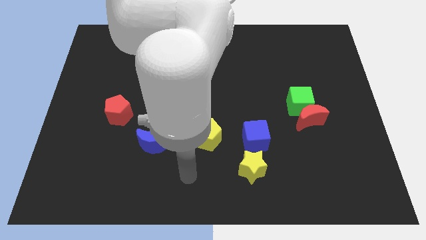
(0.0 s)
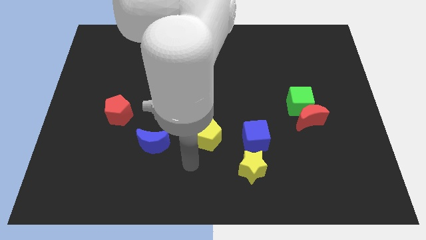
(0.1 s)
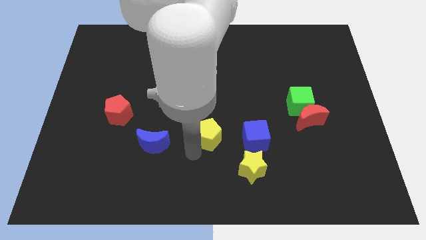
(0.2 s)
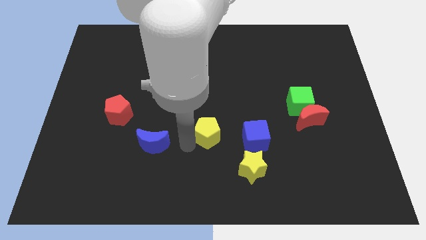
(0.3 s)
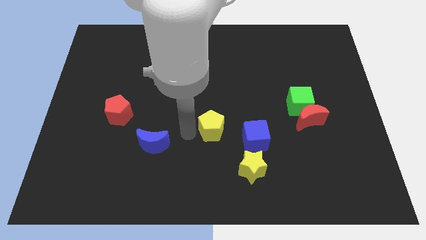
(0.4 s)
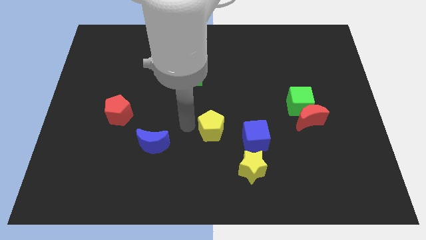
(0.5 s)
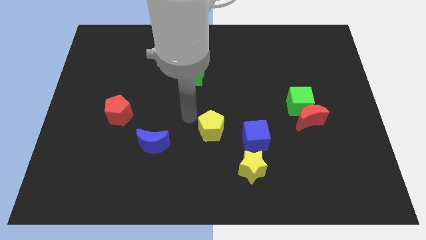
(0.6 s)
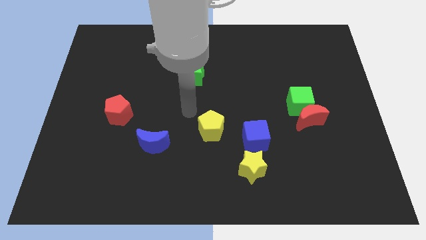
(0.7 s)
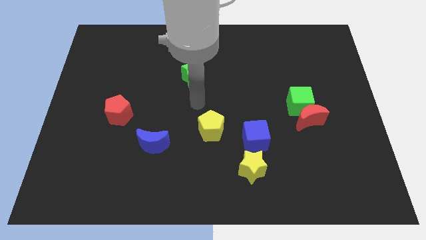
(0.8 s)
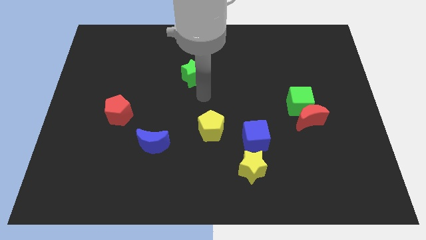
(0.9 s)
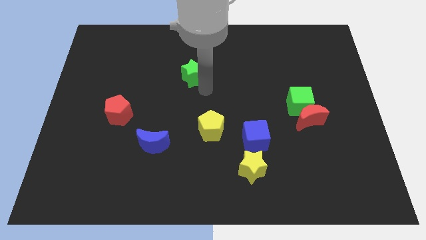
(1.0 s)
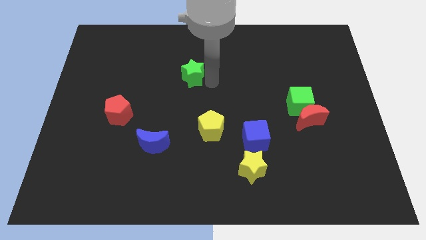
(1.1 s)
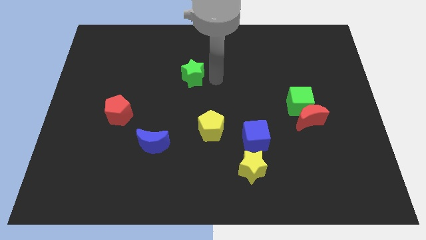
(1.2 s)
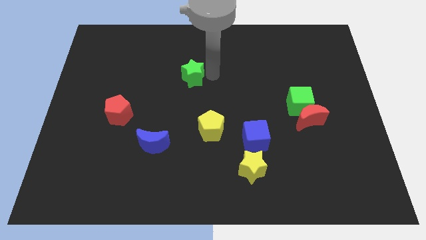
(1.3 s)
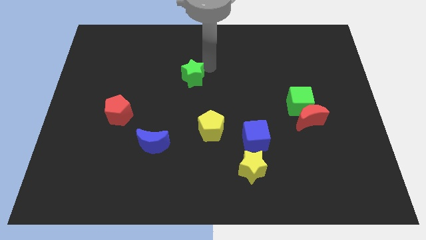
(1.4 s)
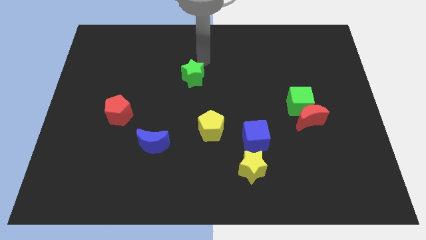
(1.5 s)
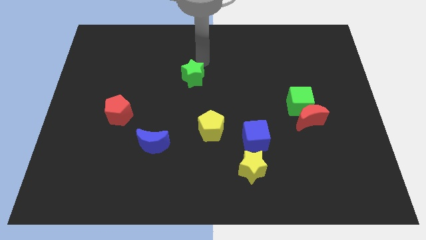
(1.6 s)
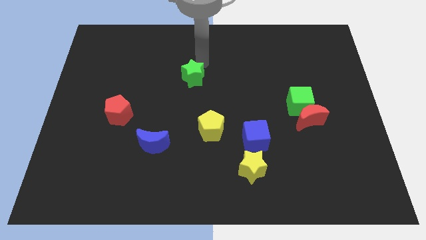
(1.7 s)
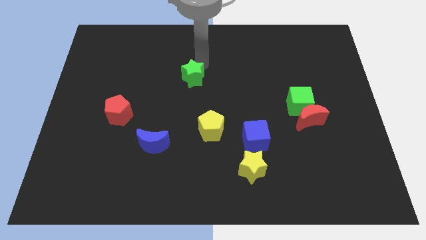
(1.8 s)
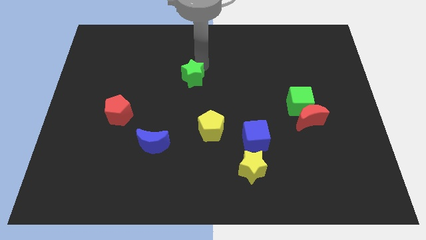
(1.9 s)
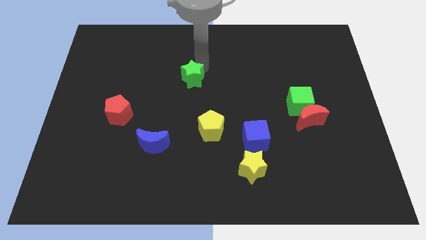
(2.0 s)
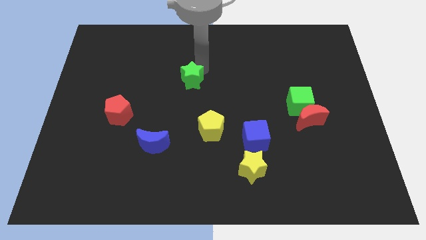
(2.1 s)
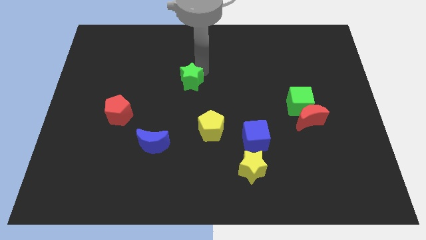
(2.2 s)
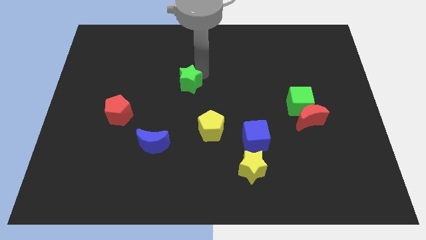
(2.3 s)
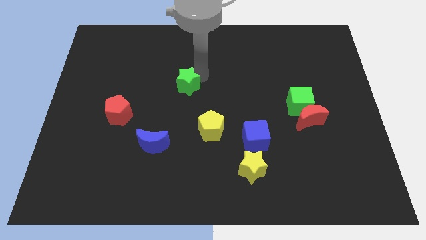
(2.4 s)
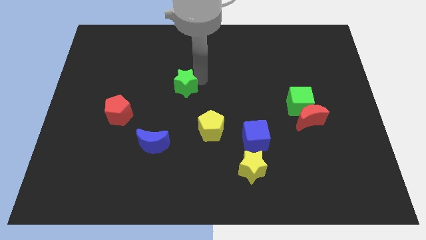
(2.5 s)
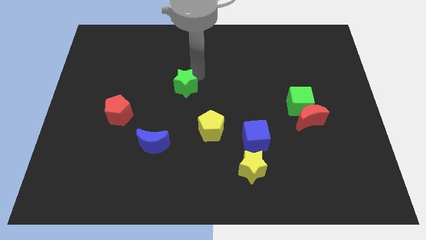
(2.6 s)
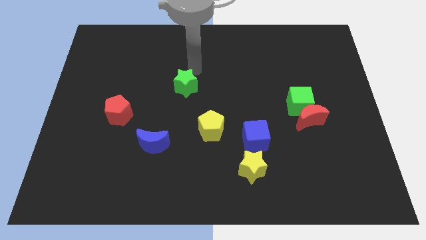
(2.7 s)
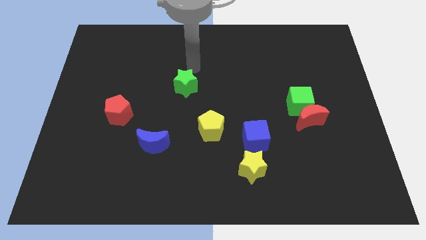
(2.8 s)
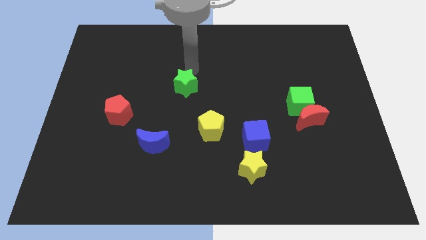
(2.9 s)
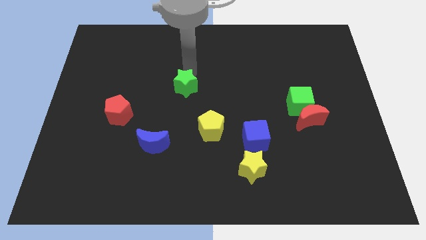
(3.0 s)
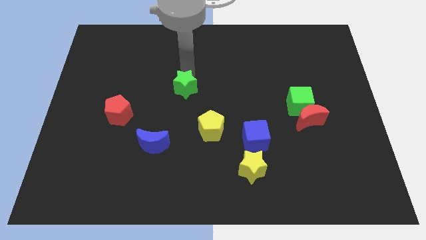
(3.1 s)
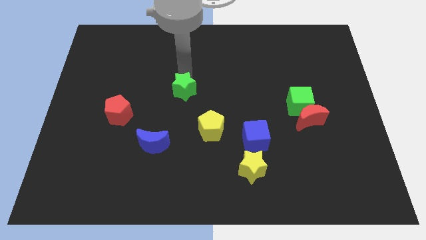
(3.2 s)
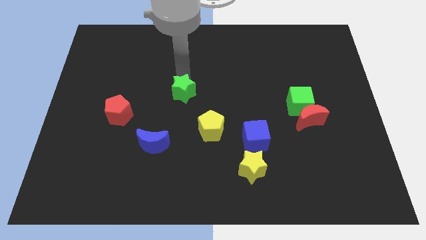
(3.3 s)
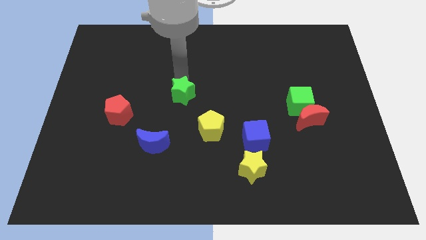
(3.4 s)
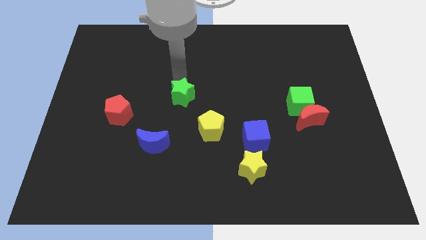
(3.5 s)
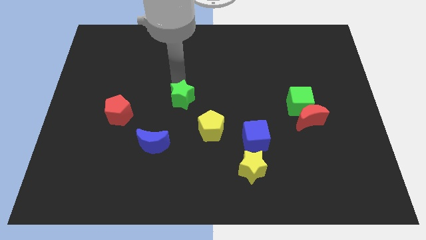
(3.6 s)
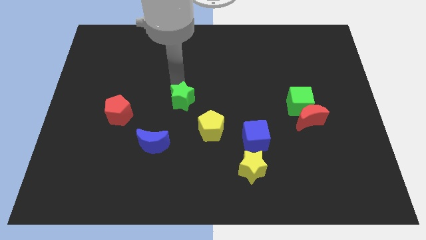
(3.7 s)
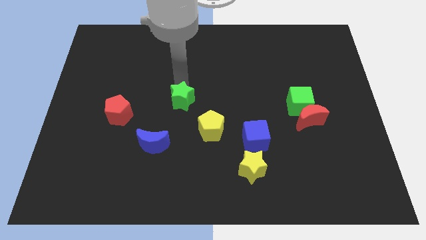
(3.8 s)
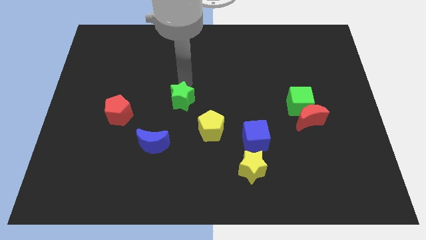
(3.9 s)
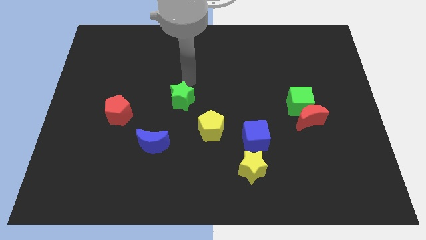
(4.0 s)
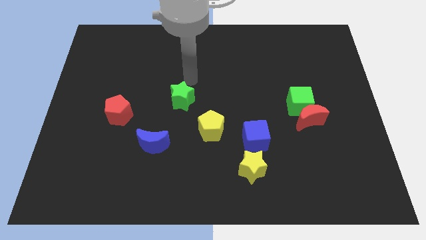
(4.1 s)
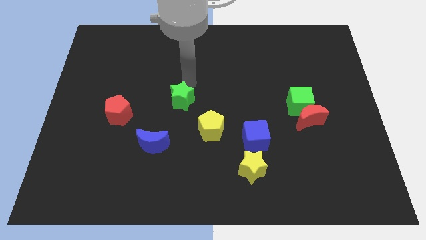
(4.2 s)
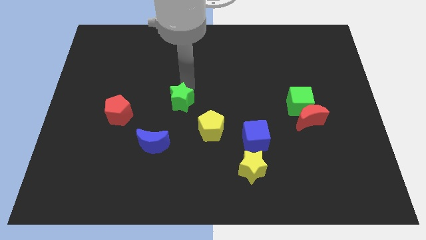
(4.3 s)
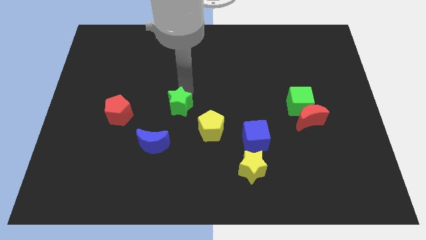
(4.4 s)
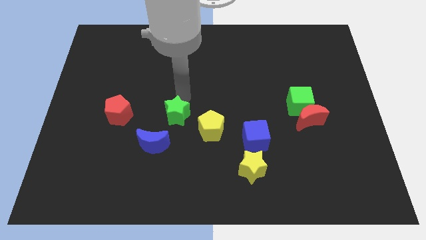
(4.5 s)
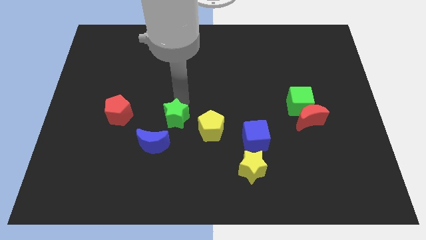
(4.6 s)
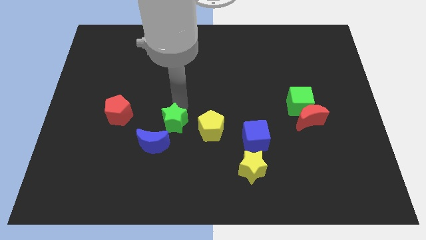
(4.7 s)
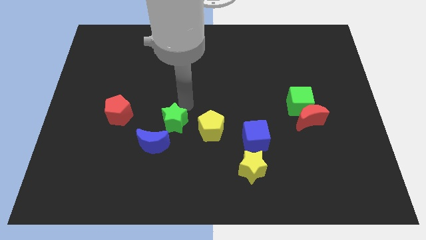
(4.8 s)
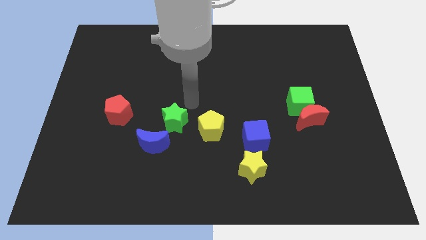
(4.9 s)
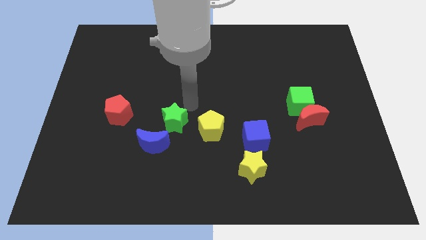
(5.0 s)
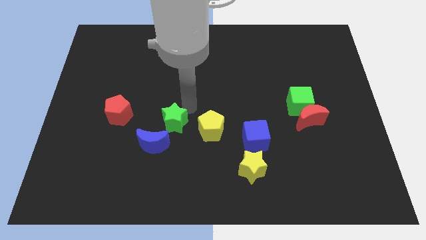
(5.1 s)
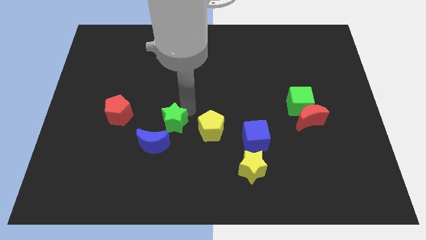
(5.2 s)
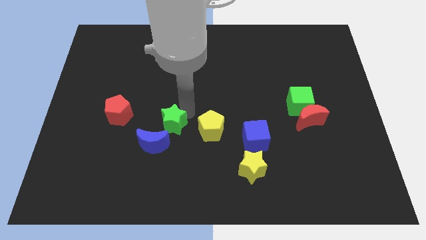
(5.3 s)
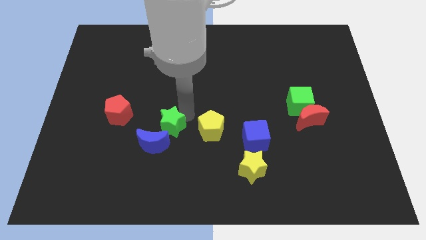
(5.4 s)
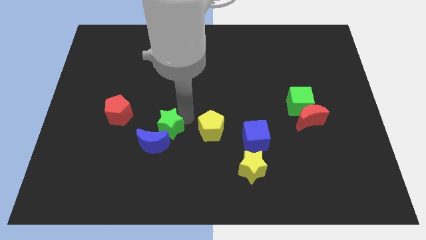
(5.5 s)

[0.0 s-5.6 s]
slide the green star close to the blue moon

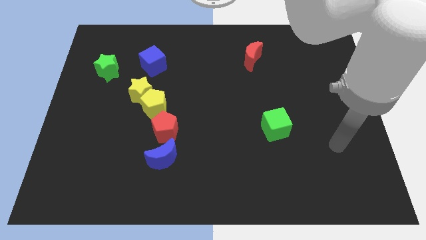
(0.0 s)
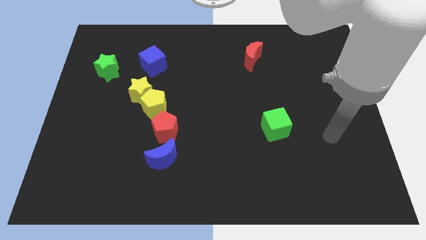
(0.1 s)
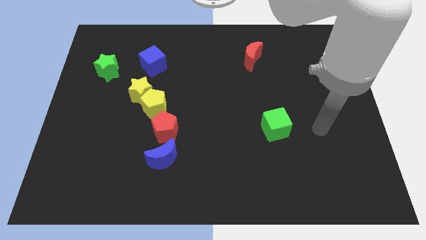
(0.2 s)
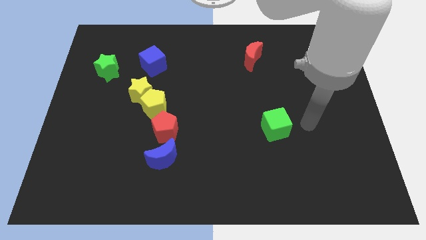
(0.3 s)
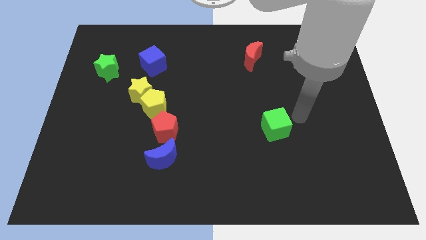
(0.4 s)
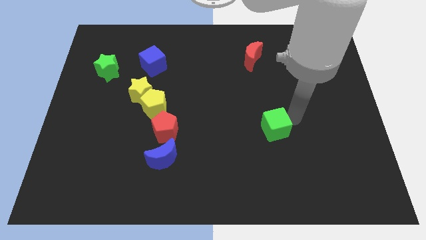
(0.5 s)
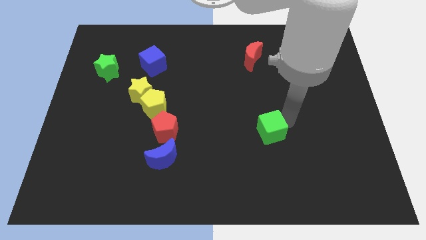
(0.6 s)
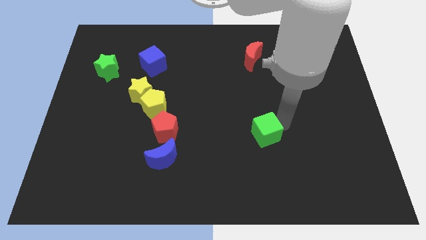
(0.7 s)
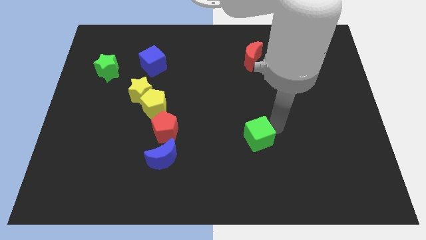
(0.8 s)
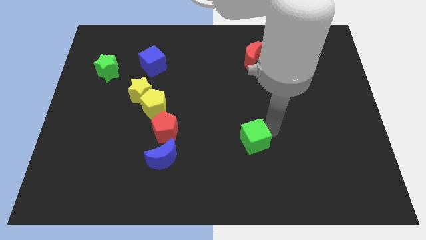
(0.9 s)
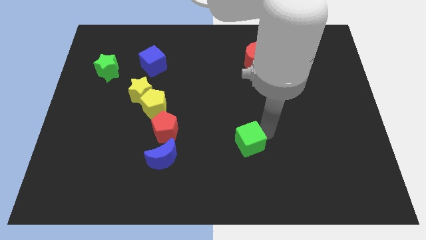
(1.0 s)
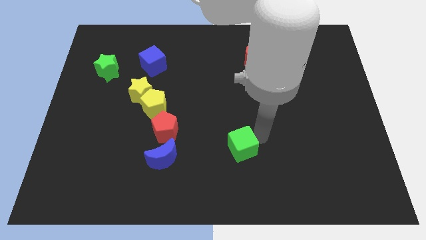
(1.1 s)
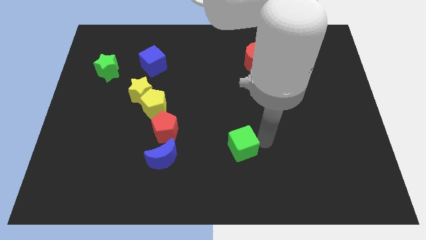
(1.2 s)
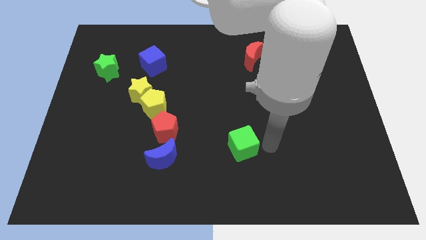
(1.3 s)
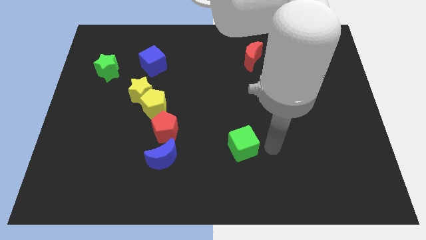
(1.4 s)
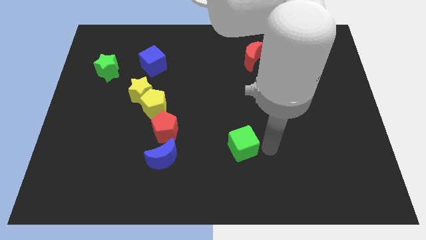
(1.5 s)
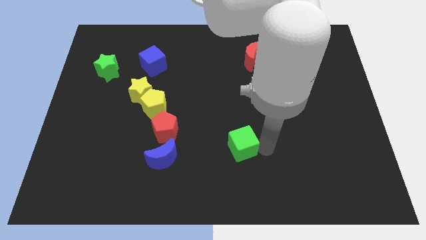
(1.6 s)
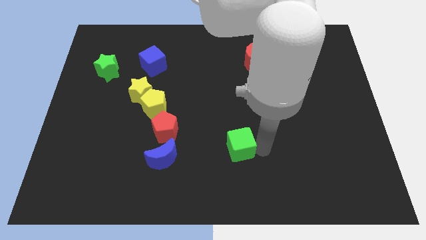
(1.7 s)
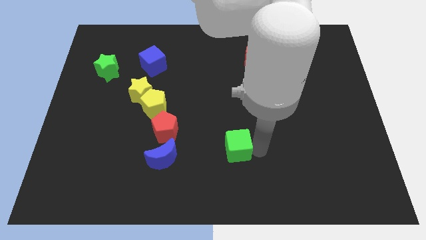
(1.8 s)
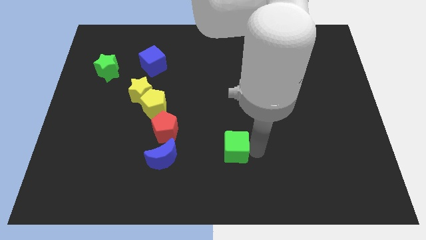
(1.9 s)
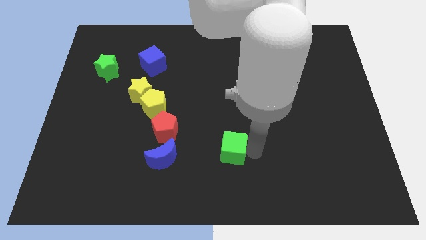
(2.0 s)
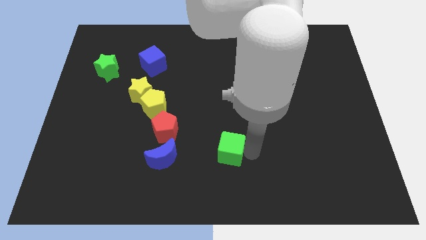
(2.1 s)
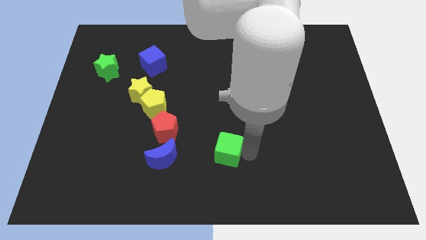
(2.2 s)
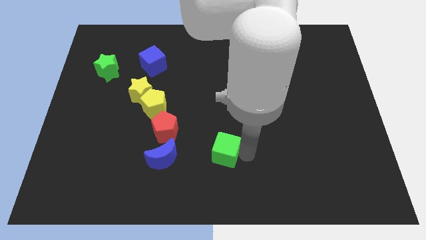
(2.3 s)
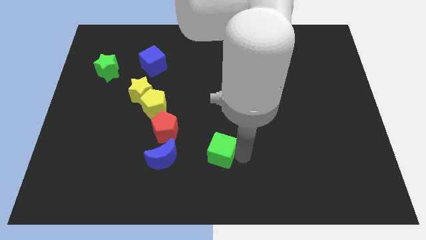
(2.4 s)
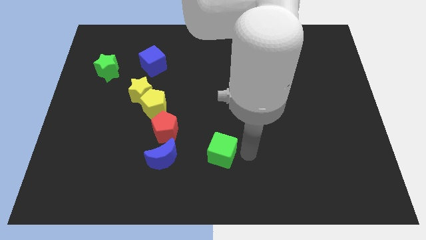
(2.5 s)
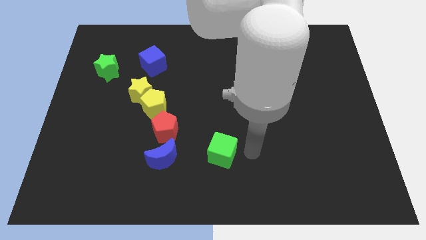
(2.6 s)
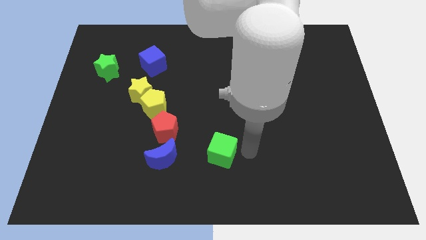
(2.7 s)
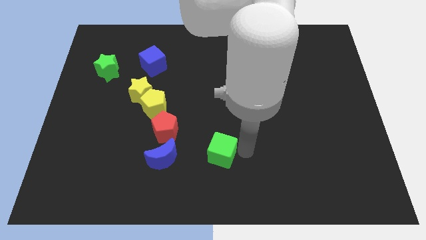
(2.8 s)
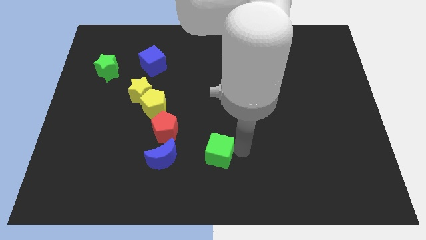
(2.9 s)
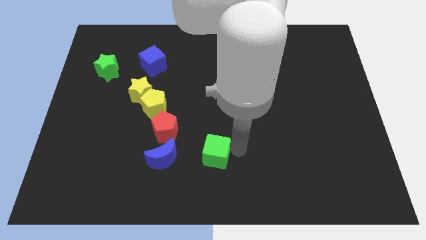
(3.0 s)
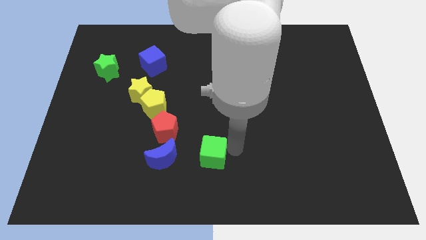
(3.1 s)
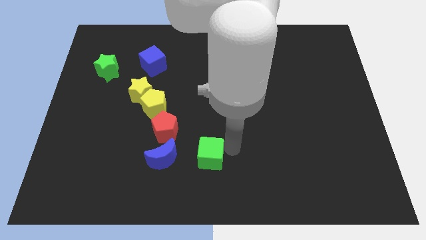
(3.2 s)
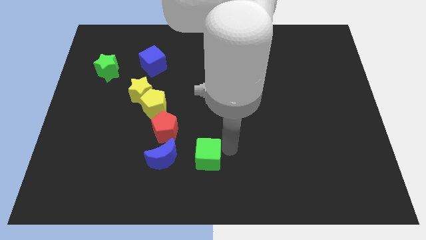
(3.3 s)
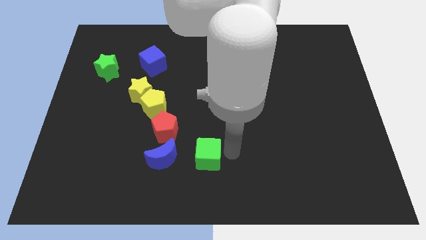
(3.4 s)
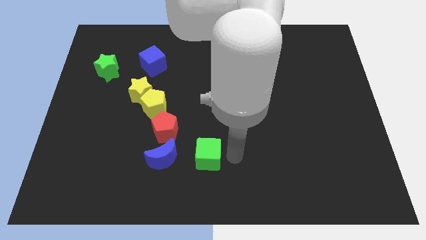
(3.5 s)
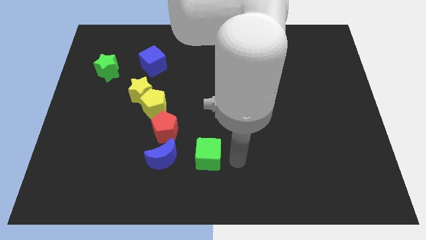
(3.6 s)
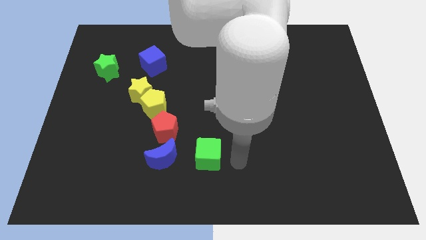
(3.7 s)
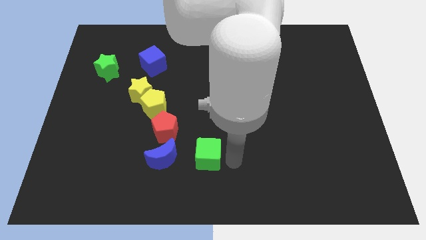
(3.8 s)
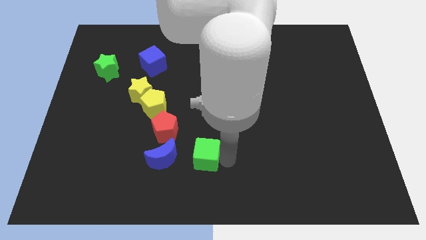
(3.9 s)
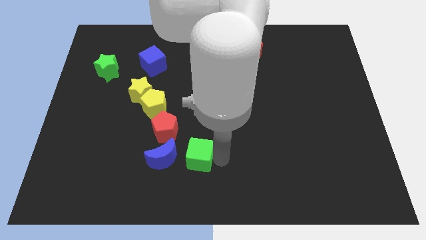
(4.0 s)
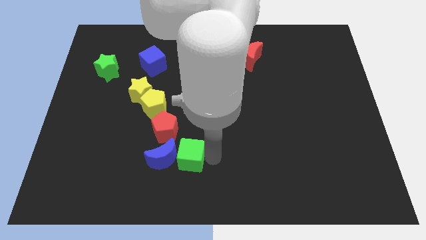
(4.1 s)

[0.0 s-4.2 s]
put the green cube to the blue moon
